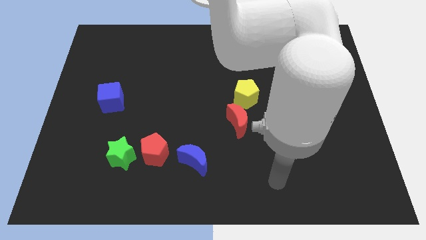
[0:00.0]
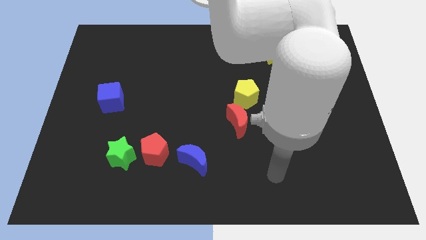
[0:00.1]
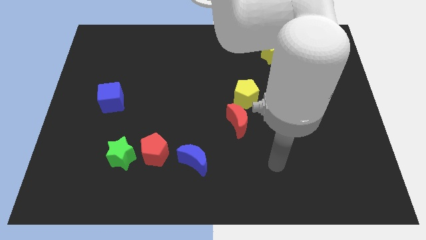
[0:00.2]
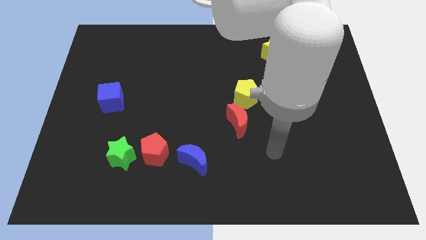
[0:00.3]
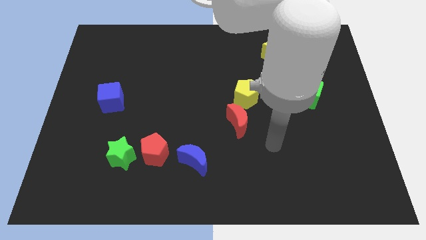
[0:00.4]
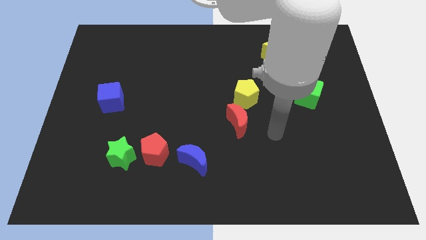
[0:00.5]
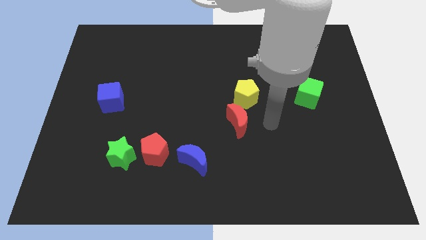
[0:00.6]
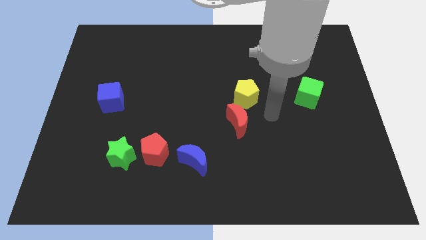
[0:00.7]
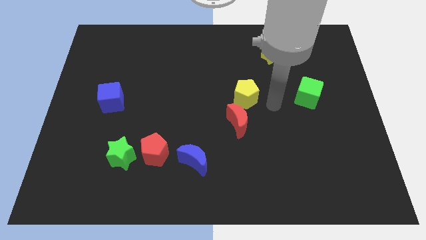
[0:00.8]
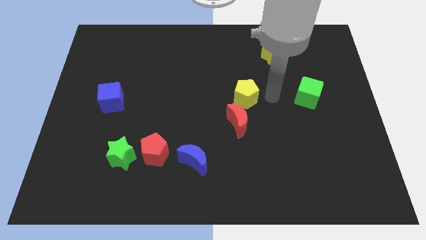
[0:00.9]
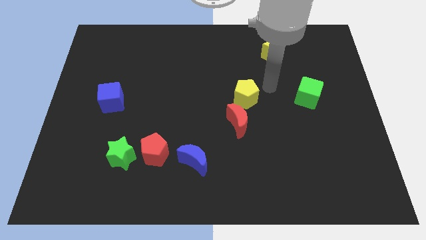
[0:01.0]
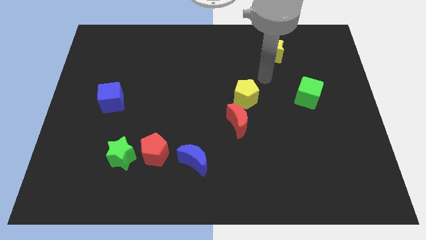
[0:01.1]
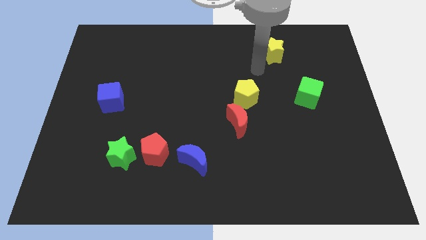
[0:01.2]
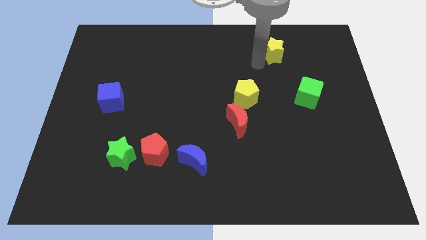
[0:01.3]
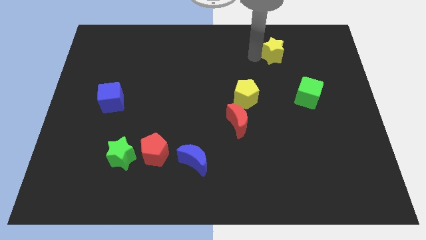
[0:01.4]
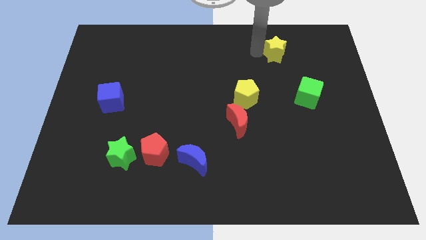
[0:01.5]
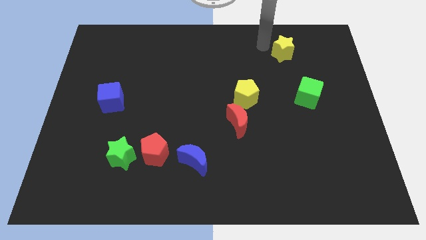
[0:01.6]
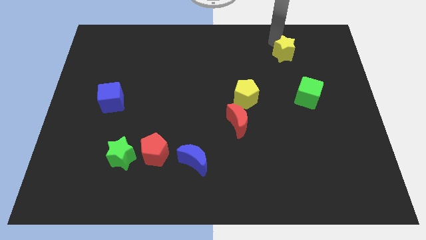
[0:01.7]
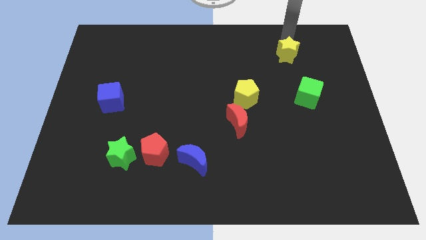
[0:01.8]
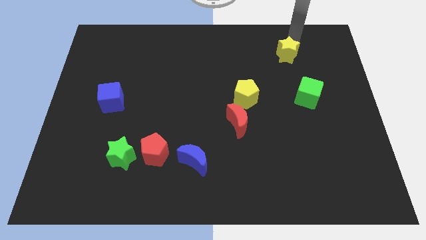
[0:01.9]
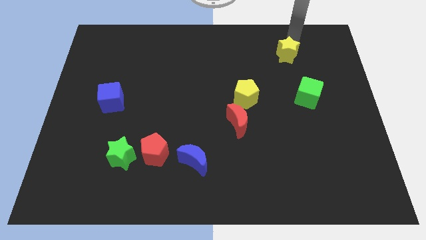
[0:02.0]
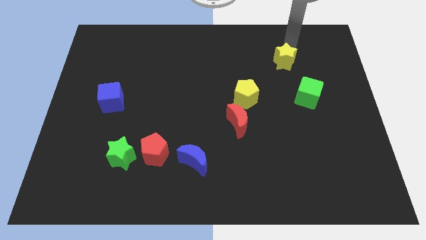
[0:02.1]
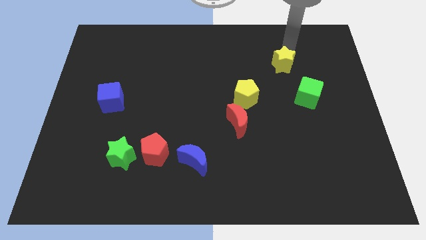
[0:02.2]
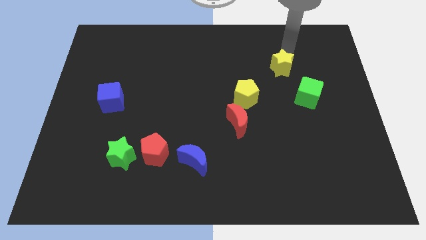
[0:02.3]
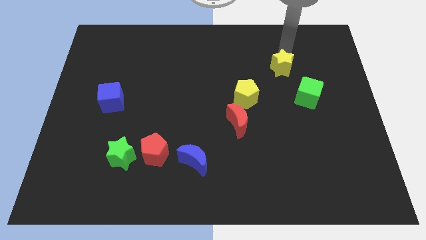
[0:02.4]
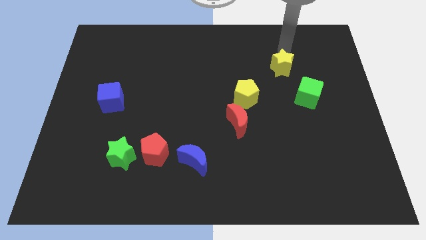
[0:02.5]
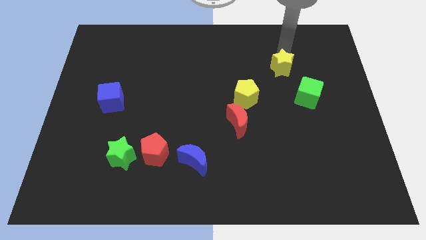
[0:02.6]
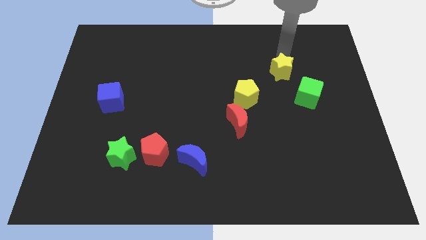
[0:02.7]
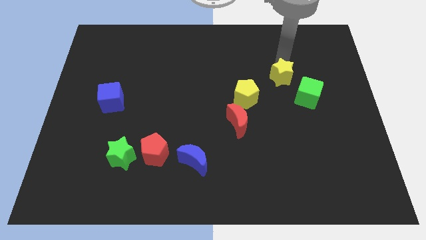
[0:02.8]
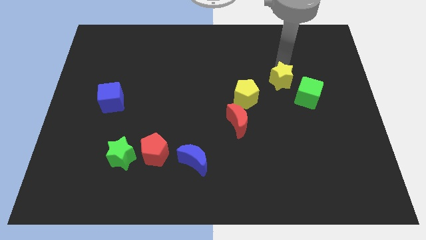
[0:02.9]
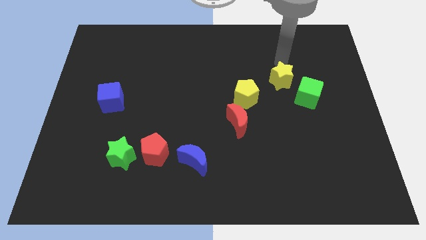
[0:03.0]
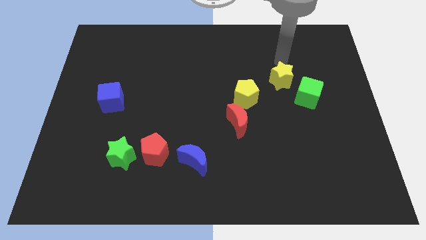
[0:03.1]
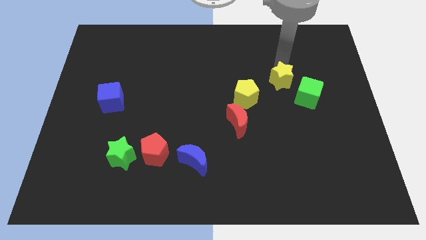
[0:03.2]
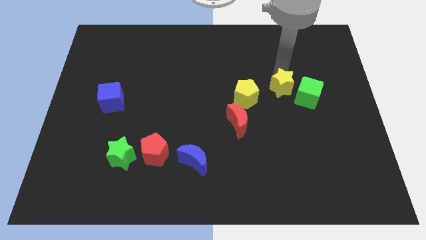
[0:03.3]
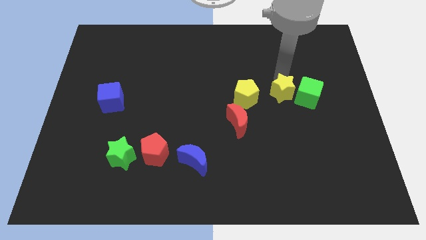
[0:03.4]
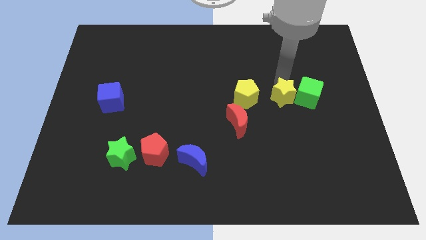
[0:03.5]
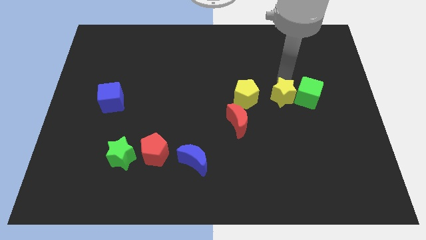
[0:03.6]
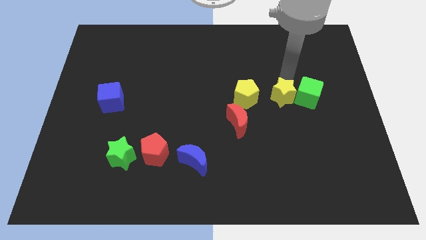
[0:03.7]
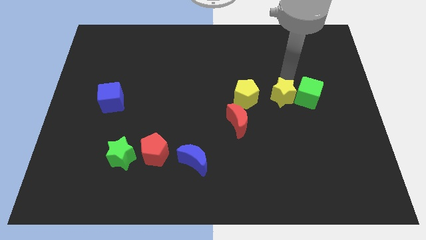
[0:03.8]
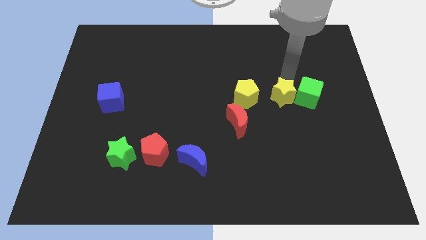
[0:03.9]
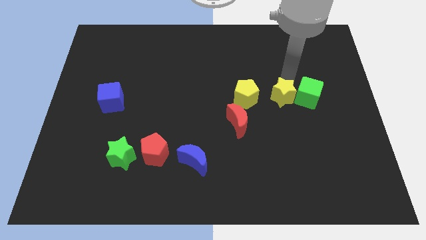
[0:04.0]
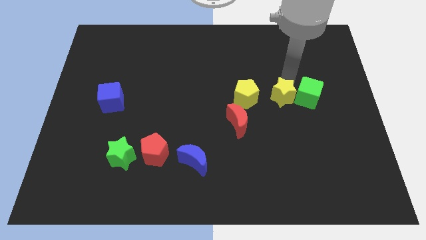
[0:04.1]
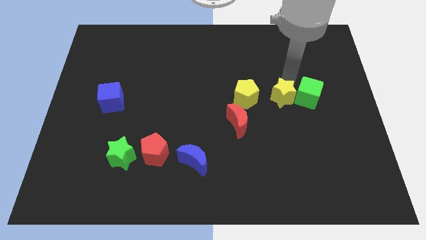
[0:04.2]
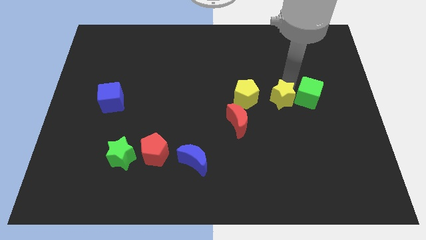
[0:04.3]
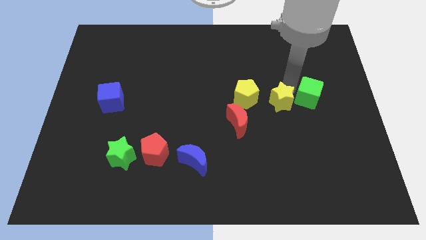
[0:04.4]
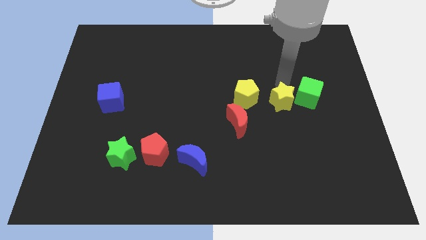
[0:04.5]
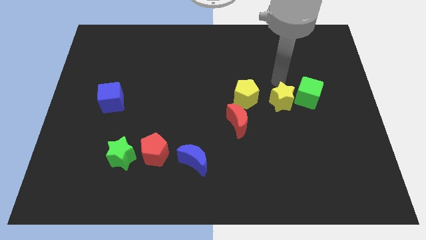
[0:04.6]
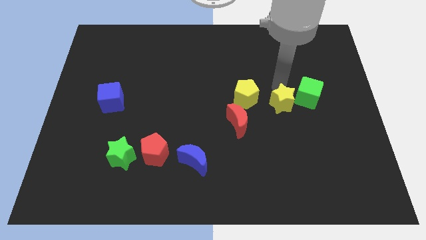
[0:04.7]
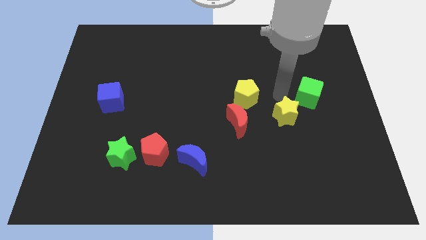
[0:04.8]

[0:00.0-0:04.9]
move the yellow star down

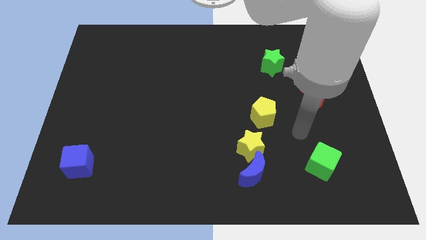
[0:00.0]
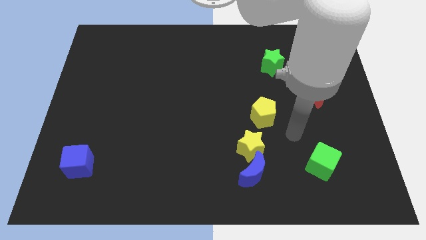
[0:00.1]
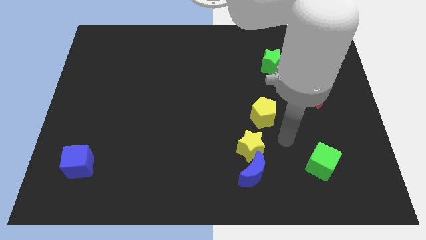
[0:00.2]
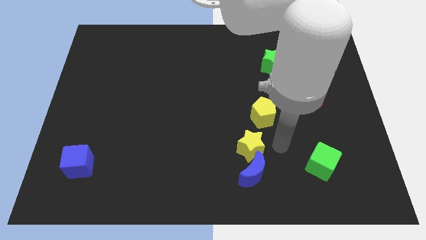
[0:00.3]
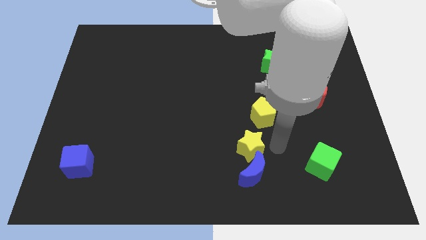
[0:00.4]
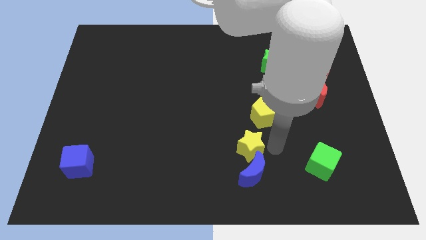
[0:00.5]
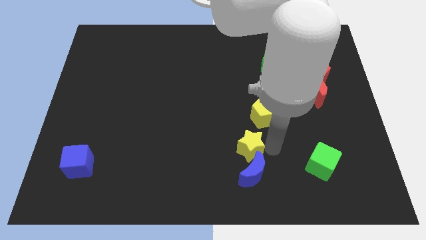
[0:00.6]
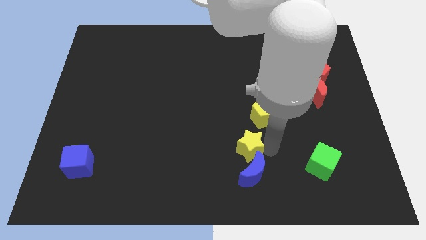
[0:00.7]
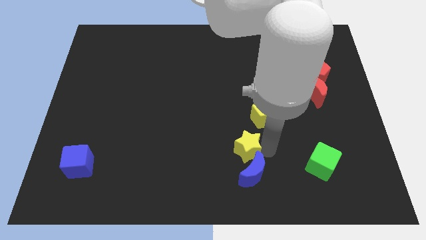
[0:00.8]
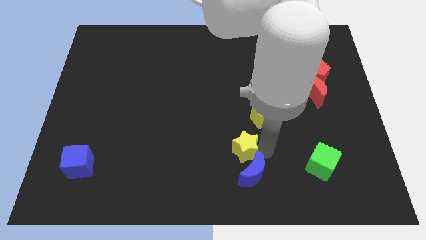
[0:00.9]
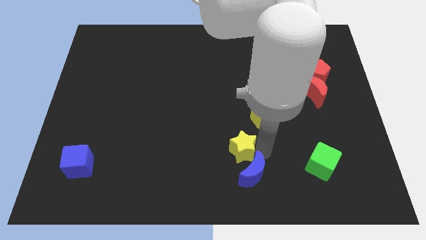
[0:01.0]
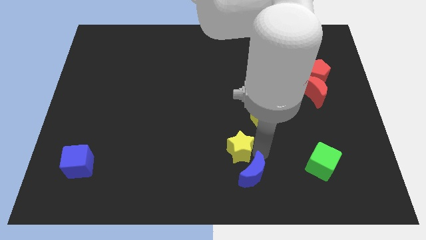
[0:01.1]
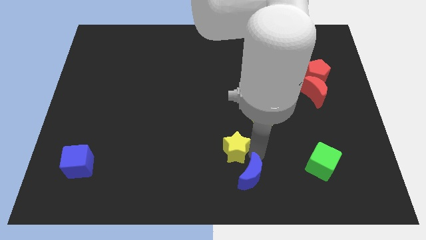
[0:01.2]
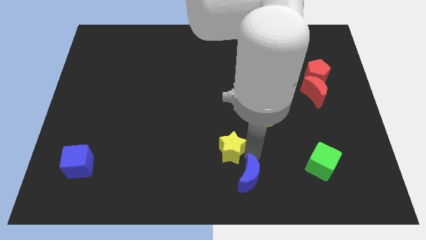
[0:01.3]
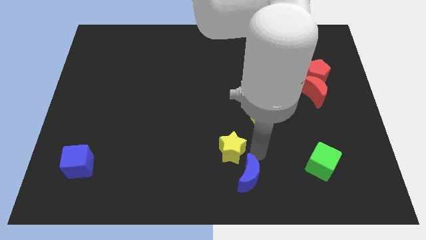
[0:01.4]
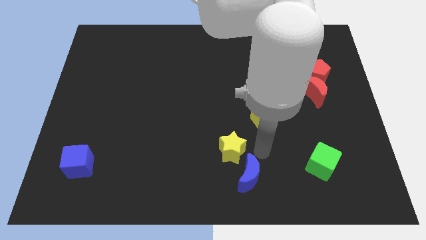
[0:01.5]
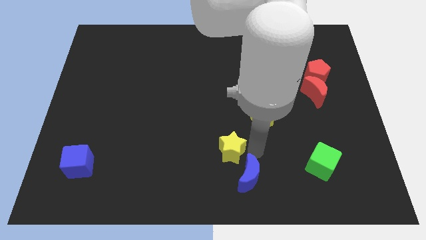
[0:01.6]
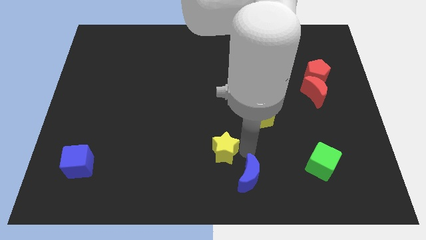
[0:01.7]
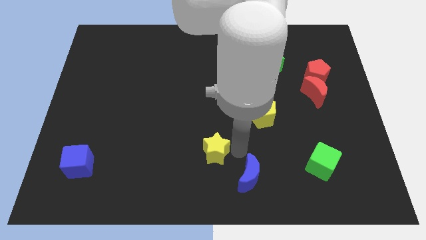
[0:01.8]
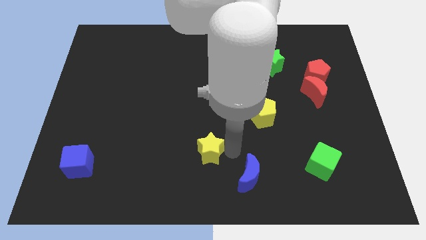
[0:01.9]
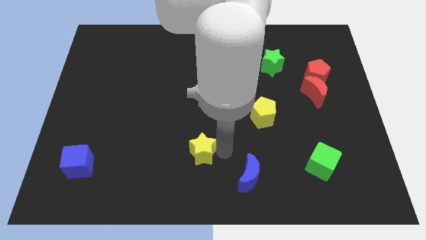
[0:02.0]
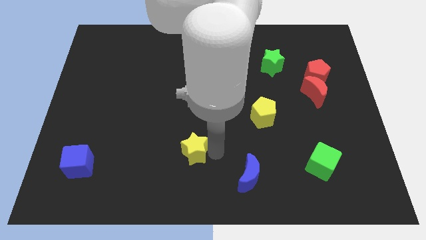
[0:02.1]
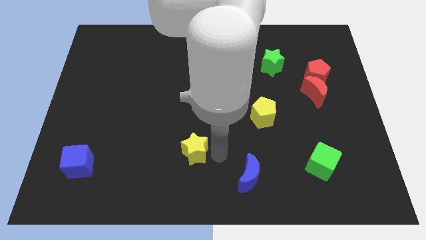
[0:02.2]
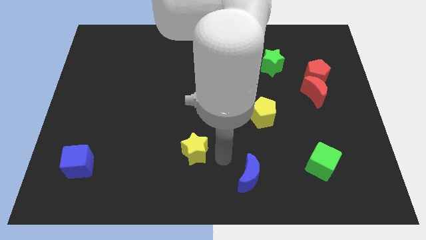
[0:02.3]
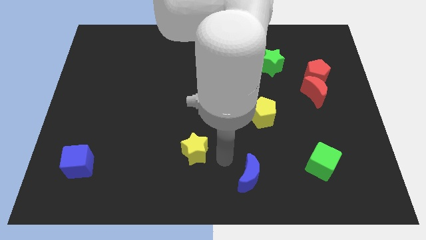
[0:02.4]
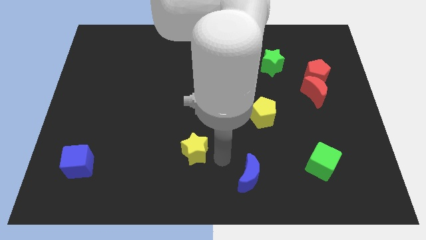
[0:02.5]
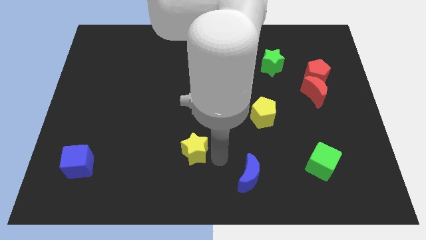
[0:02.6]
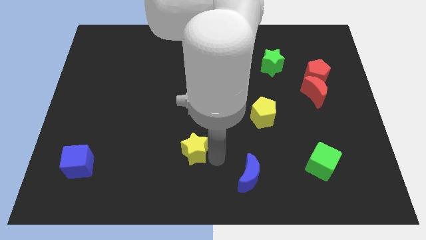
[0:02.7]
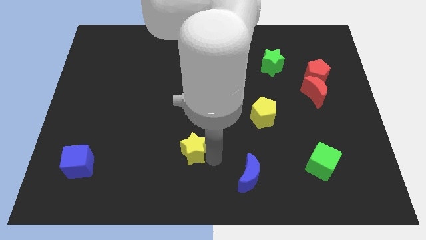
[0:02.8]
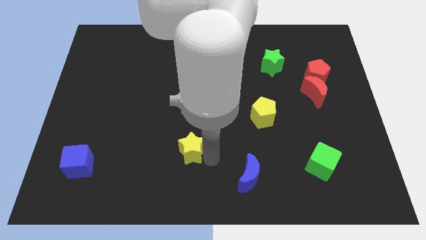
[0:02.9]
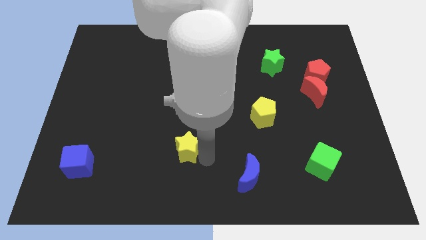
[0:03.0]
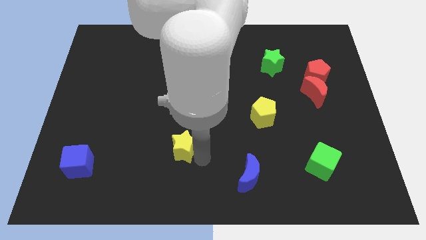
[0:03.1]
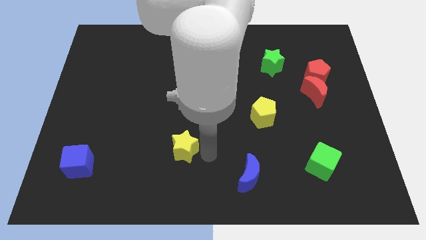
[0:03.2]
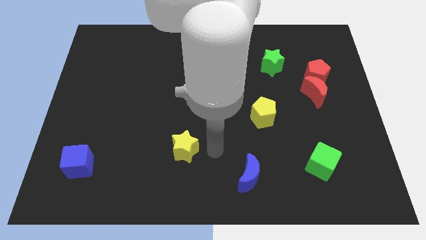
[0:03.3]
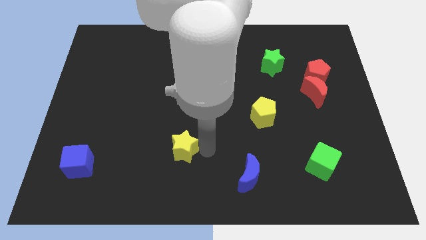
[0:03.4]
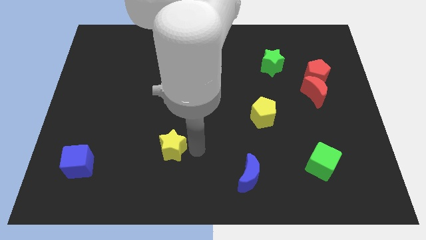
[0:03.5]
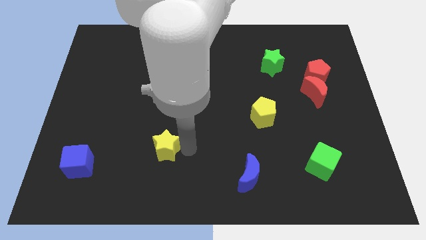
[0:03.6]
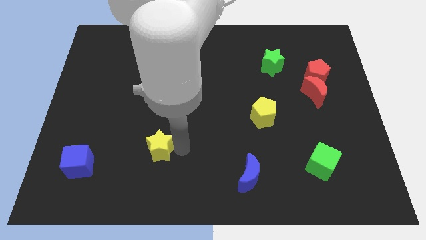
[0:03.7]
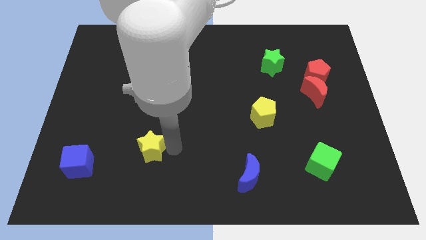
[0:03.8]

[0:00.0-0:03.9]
push the yellow star left
